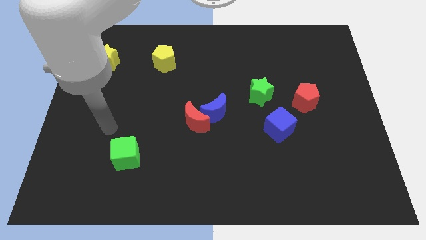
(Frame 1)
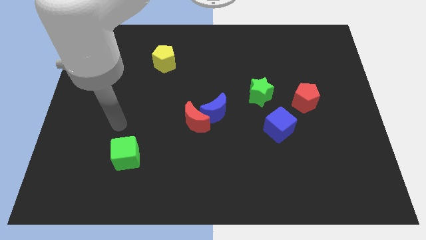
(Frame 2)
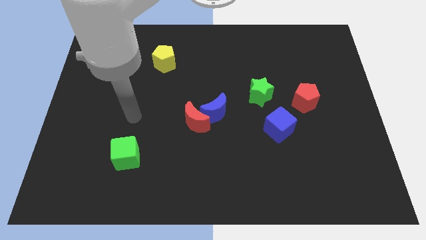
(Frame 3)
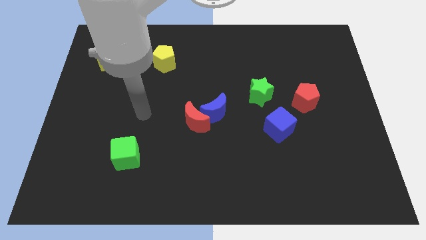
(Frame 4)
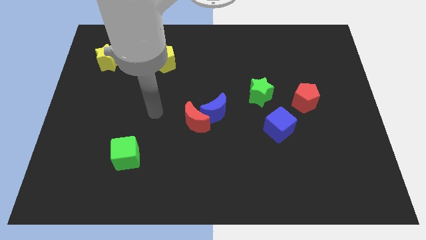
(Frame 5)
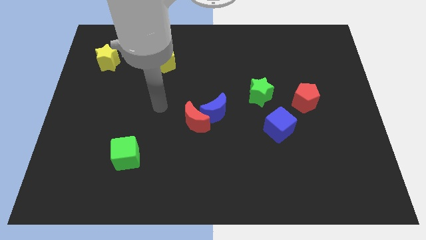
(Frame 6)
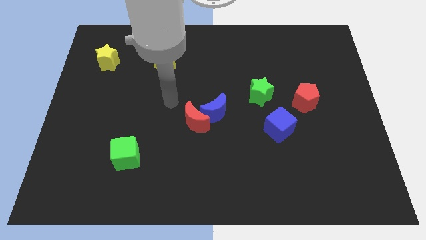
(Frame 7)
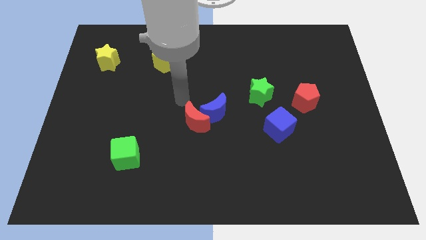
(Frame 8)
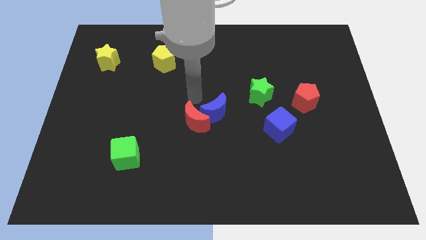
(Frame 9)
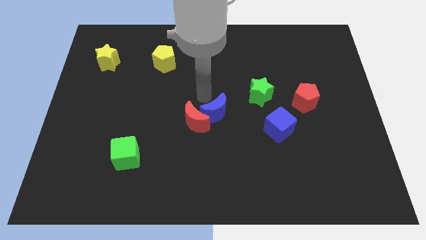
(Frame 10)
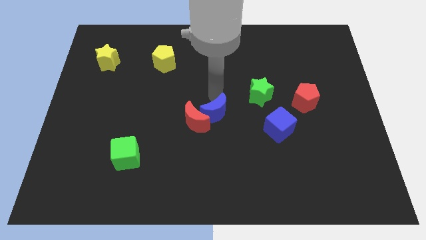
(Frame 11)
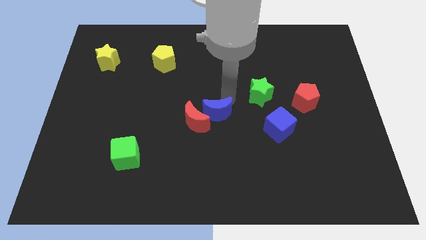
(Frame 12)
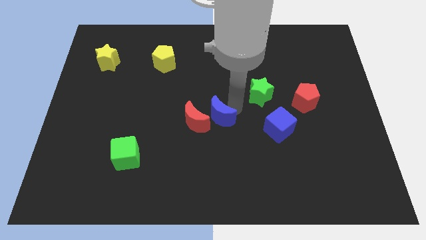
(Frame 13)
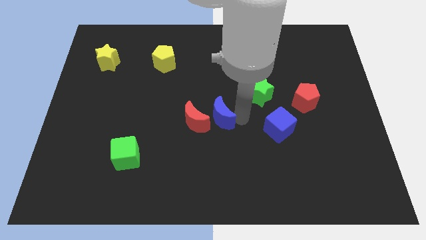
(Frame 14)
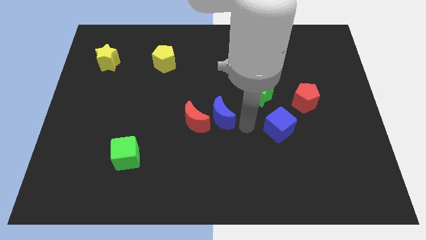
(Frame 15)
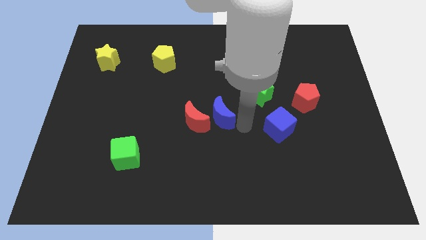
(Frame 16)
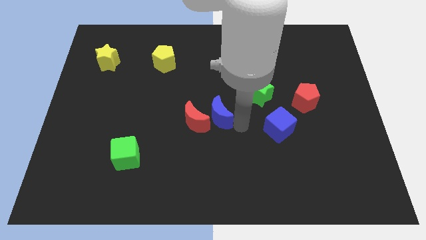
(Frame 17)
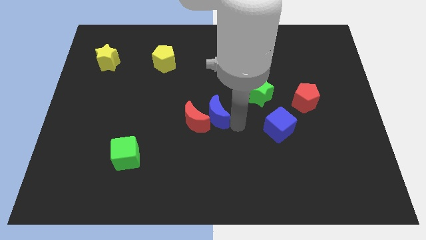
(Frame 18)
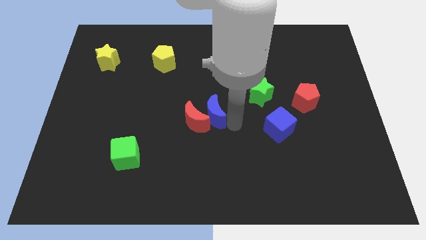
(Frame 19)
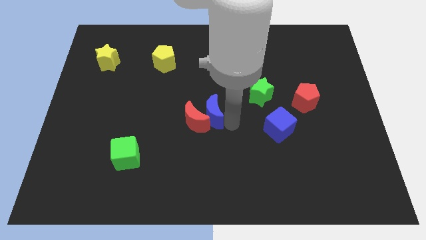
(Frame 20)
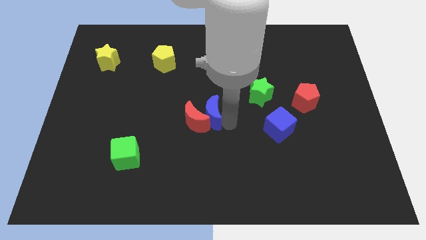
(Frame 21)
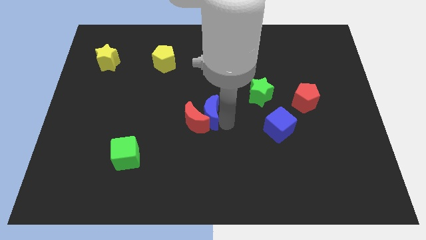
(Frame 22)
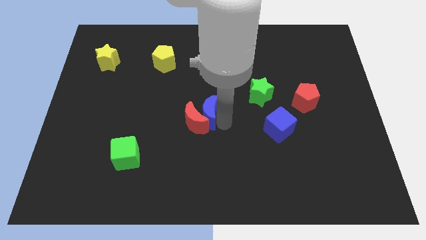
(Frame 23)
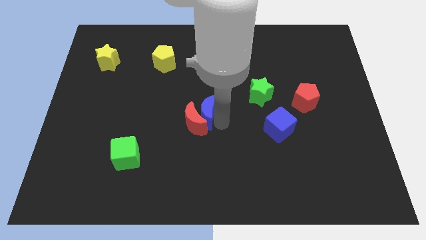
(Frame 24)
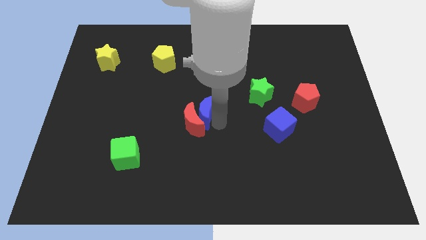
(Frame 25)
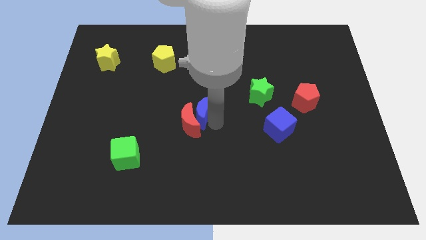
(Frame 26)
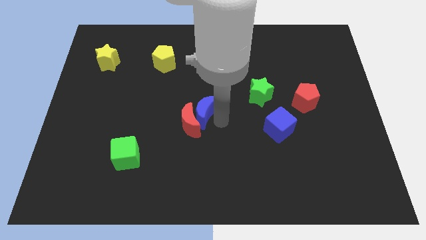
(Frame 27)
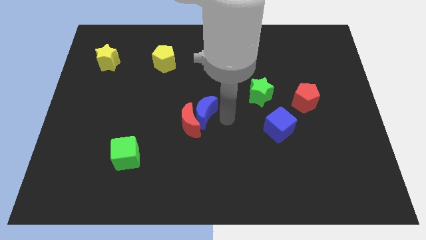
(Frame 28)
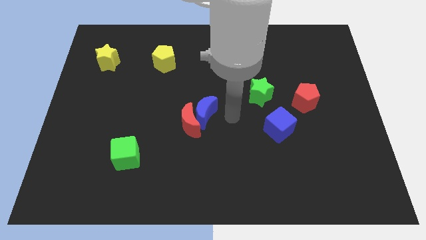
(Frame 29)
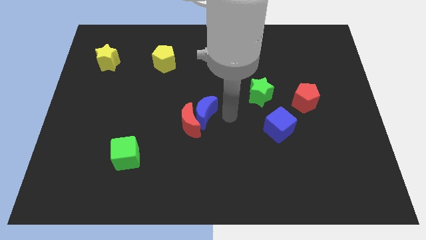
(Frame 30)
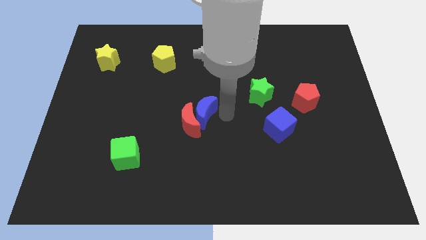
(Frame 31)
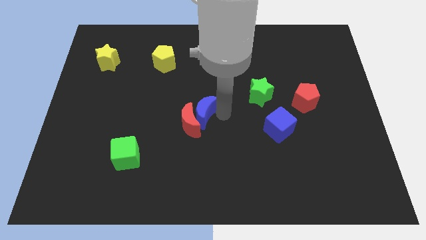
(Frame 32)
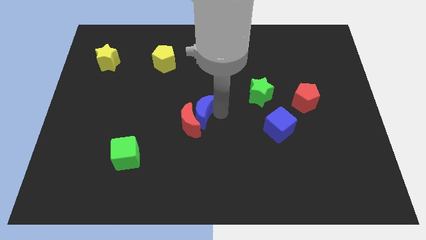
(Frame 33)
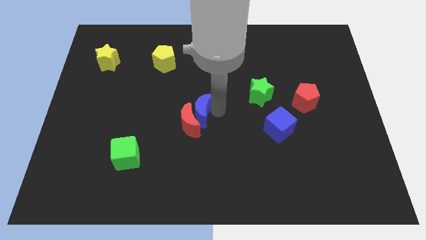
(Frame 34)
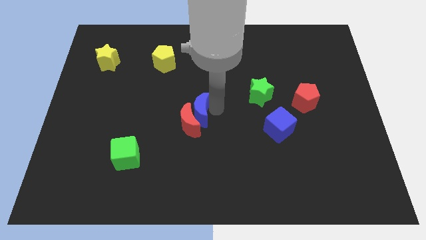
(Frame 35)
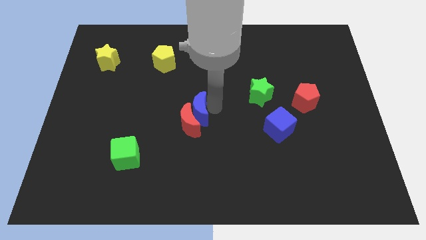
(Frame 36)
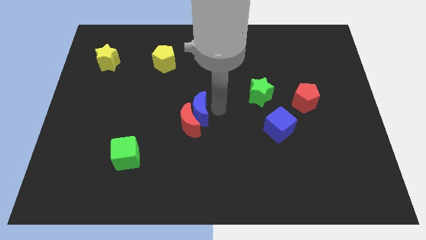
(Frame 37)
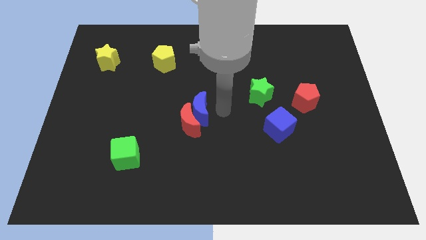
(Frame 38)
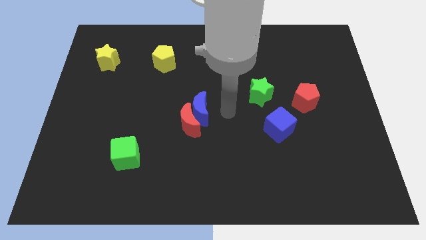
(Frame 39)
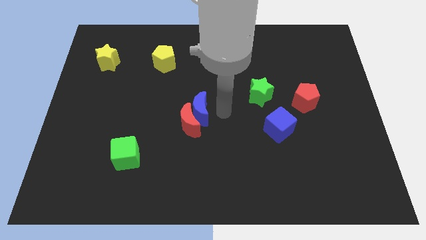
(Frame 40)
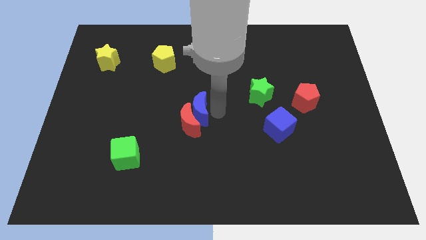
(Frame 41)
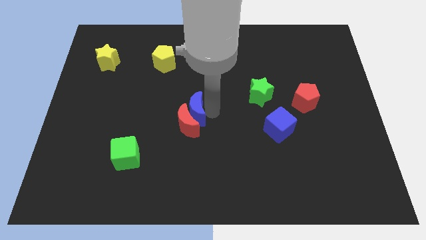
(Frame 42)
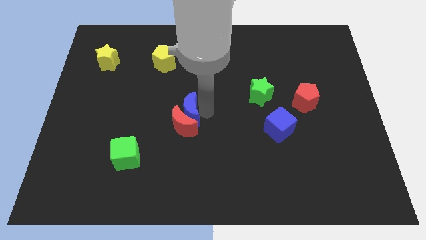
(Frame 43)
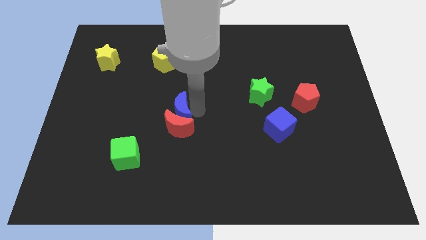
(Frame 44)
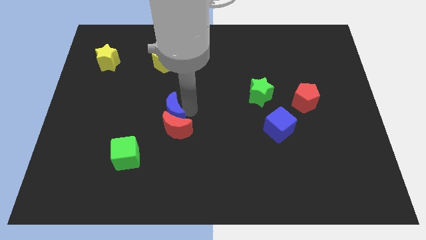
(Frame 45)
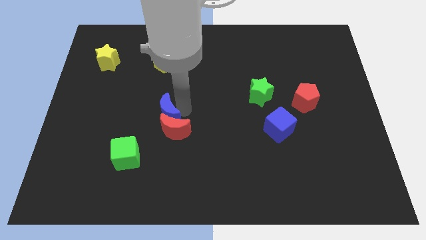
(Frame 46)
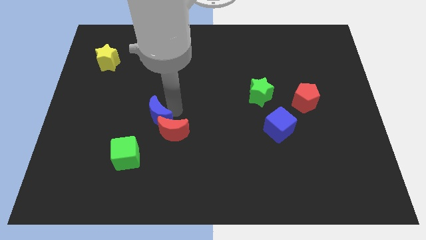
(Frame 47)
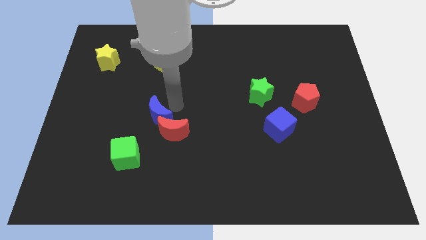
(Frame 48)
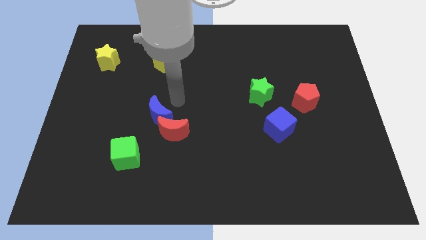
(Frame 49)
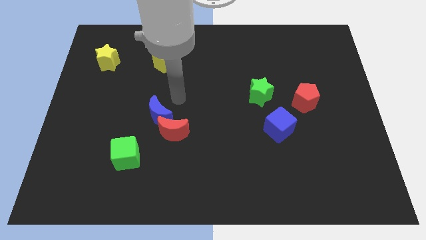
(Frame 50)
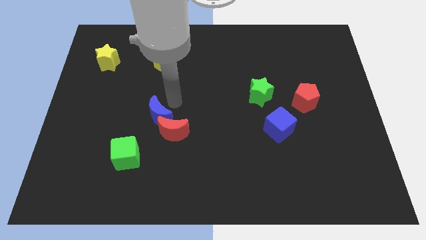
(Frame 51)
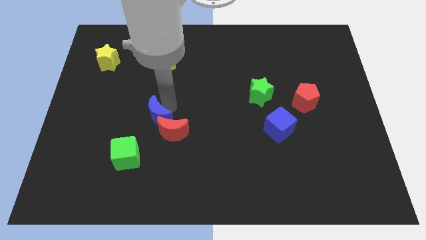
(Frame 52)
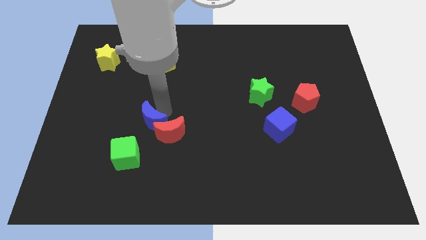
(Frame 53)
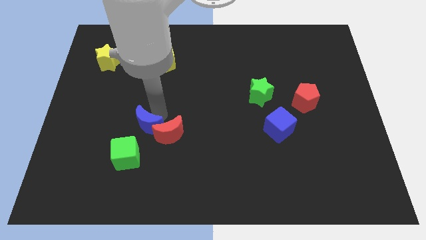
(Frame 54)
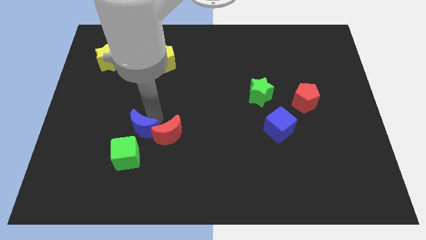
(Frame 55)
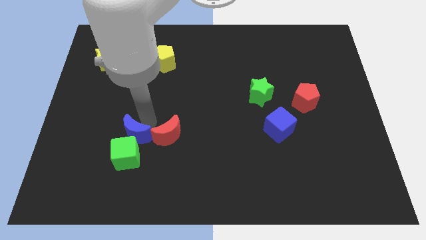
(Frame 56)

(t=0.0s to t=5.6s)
move the blue moon to the green cube

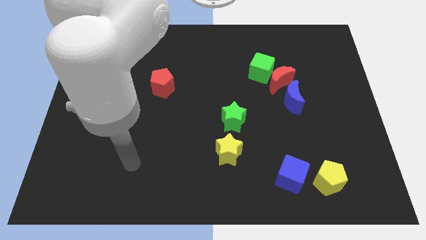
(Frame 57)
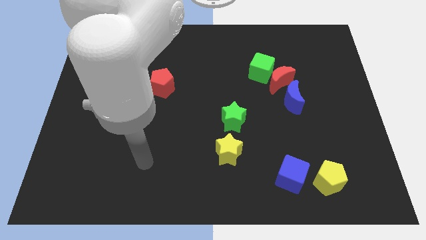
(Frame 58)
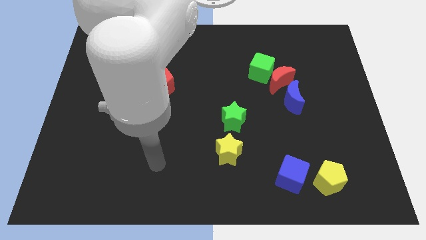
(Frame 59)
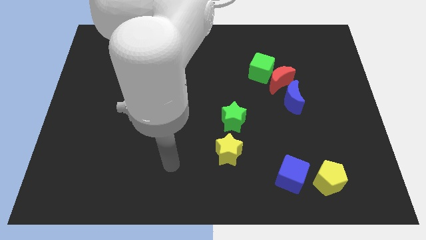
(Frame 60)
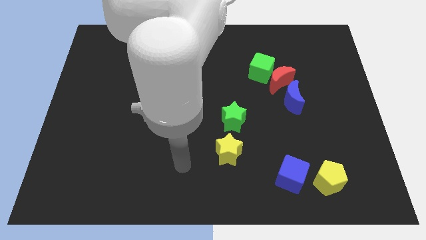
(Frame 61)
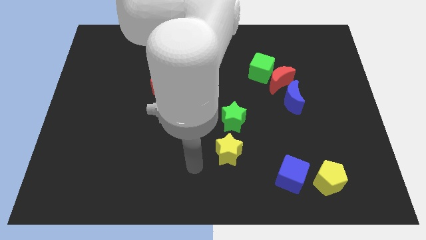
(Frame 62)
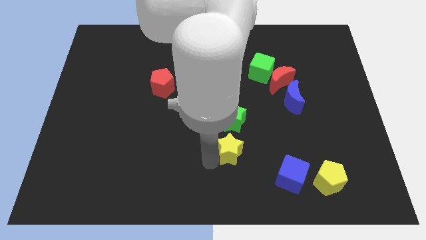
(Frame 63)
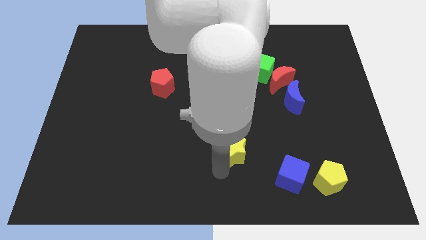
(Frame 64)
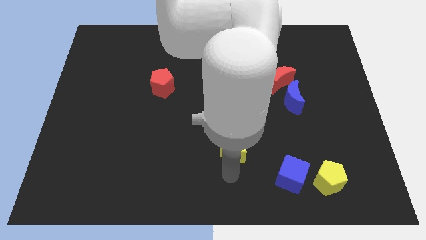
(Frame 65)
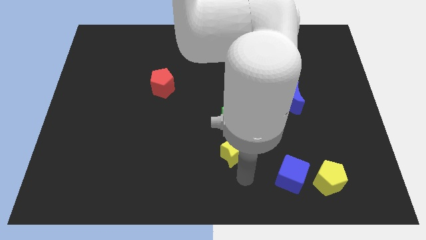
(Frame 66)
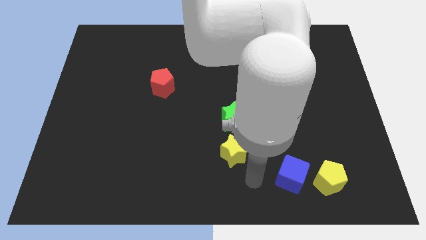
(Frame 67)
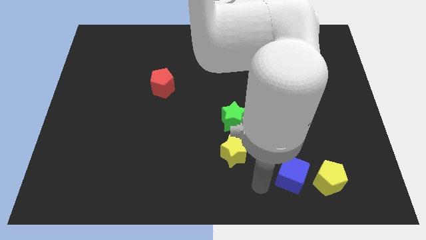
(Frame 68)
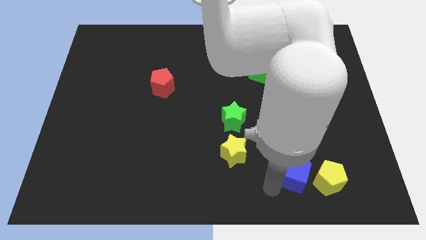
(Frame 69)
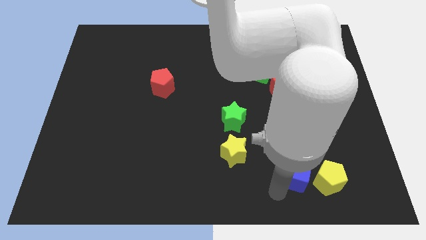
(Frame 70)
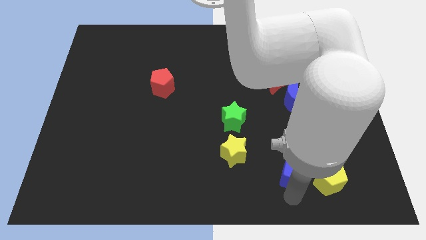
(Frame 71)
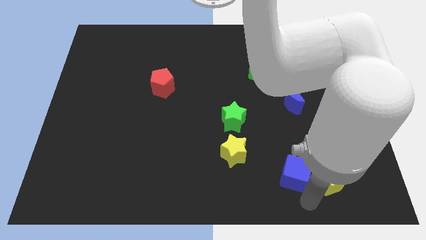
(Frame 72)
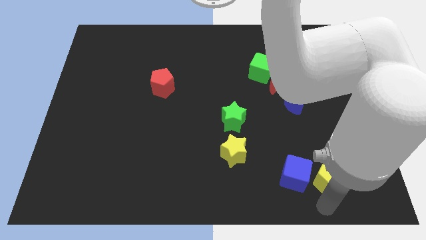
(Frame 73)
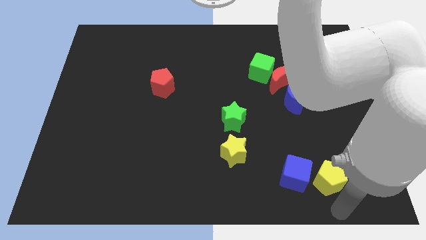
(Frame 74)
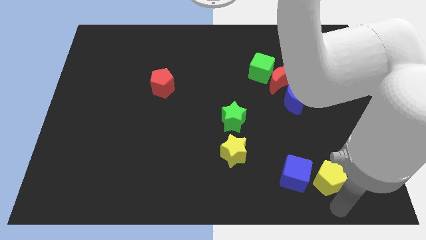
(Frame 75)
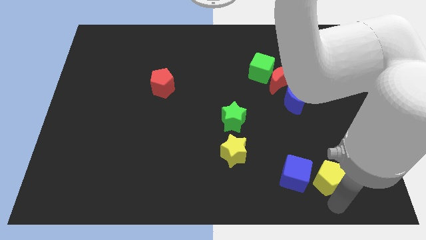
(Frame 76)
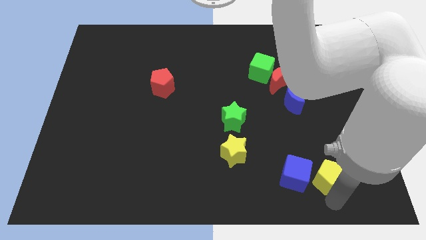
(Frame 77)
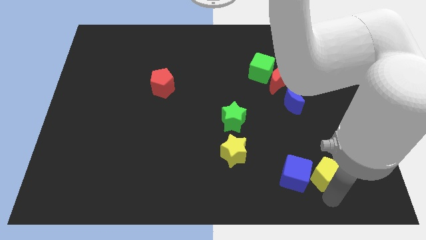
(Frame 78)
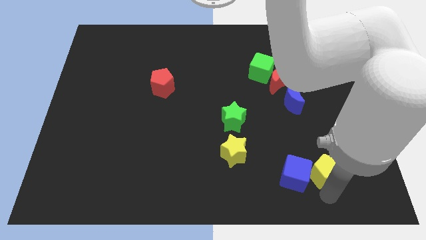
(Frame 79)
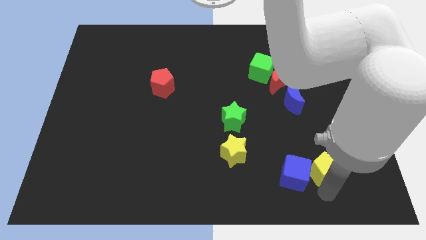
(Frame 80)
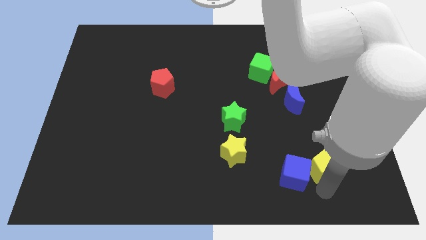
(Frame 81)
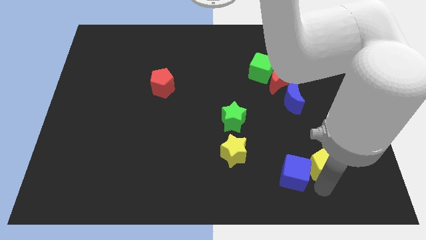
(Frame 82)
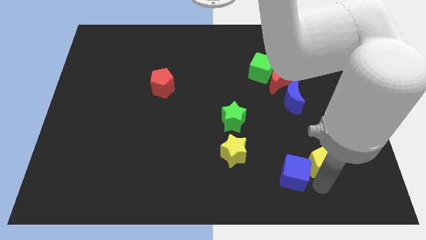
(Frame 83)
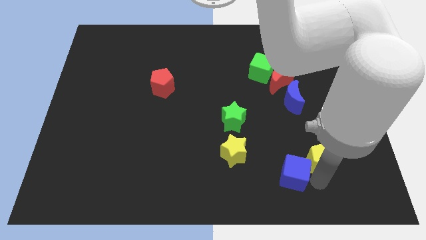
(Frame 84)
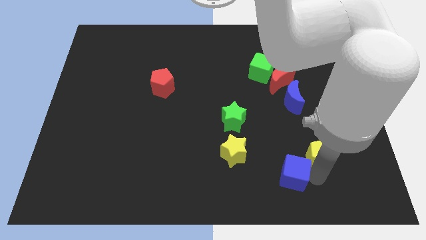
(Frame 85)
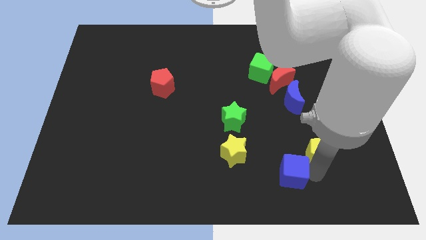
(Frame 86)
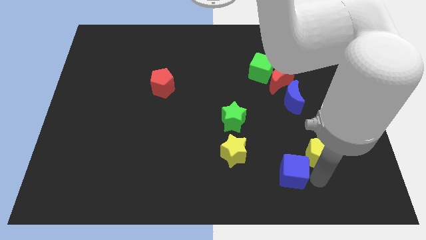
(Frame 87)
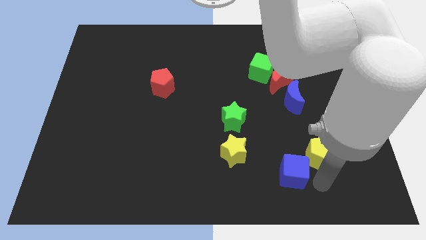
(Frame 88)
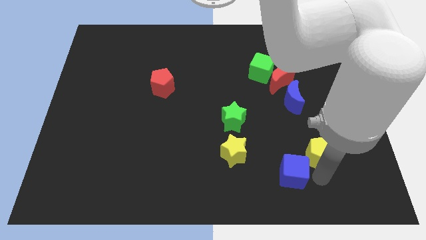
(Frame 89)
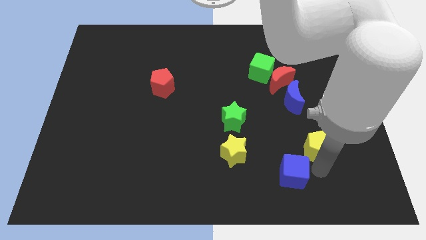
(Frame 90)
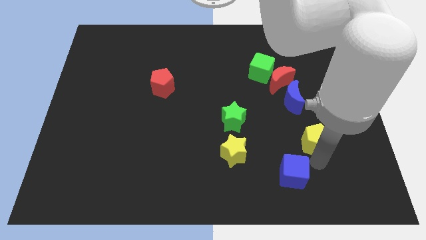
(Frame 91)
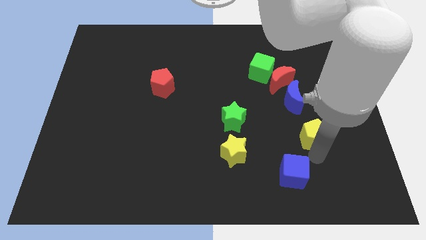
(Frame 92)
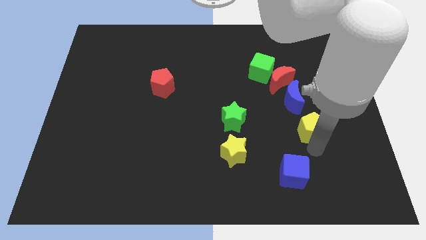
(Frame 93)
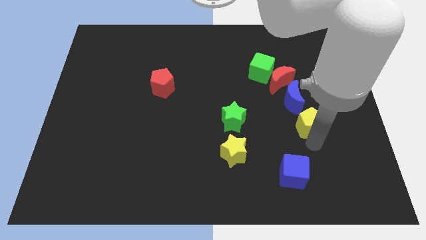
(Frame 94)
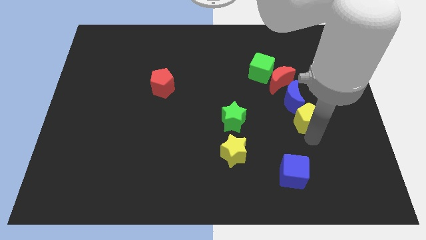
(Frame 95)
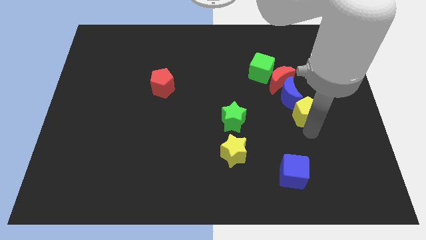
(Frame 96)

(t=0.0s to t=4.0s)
put the yellow pentagon to the blue moon
